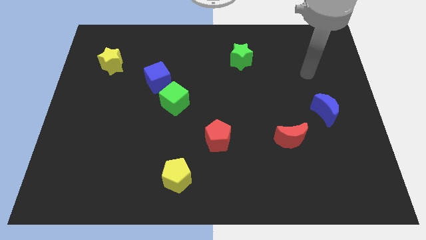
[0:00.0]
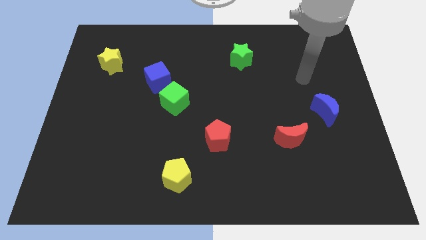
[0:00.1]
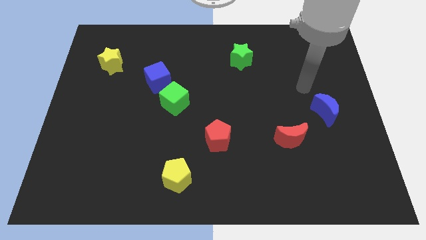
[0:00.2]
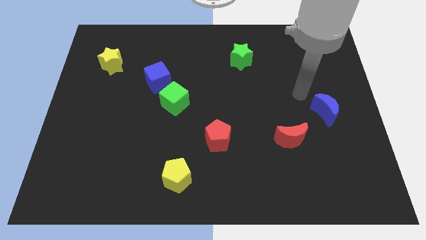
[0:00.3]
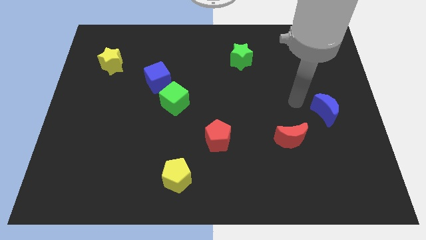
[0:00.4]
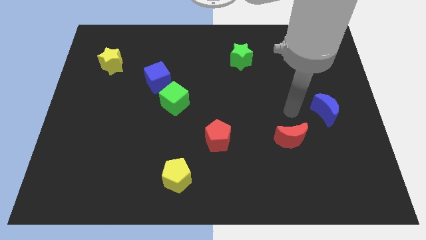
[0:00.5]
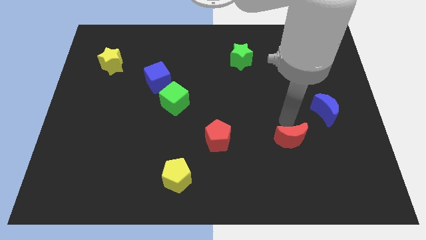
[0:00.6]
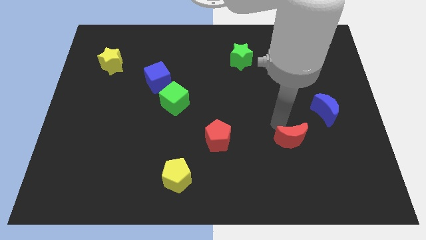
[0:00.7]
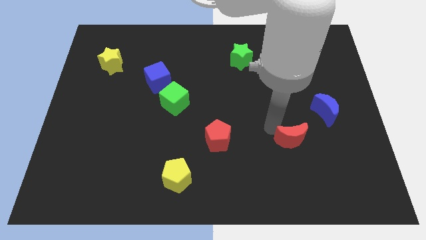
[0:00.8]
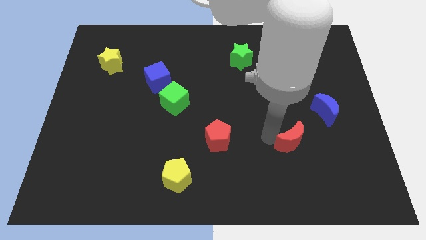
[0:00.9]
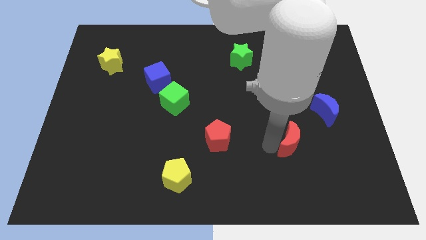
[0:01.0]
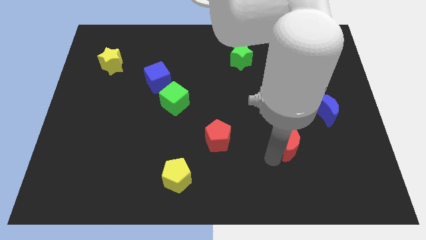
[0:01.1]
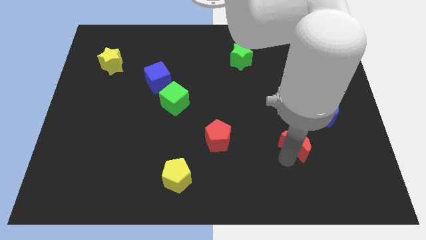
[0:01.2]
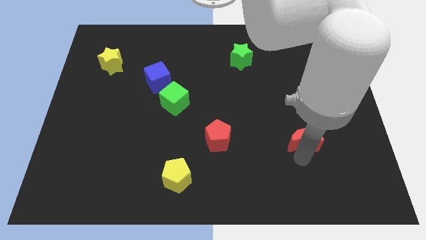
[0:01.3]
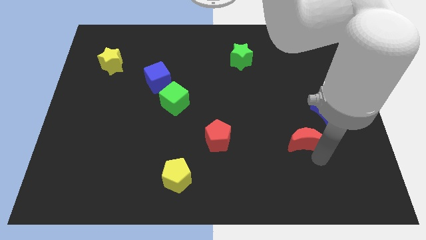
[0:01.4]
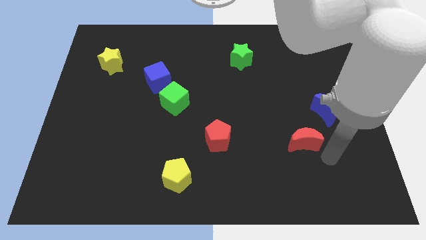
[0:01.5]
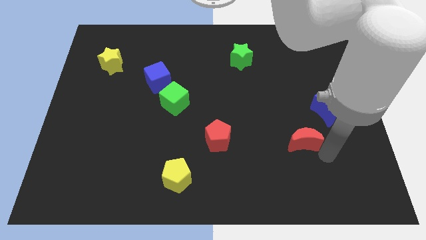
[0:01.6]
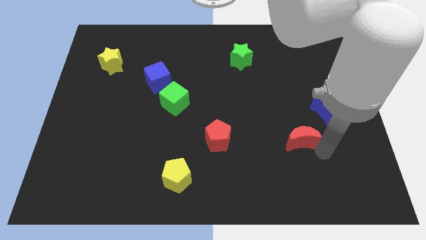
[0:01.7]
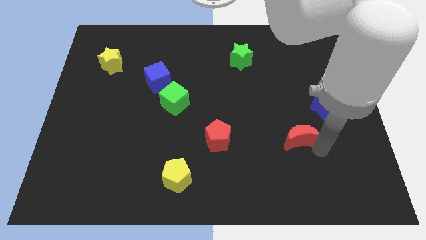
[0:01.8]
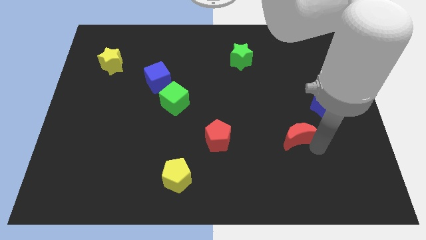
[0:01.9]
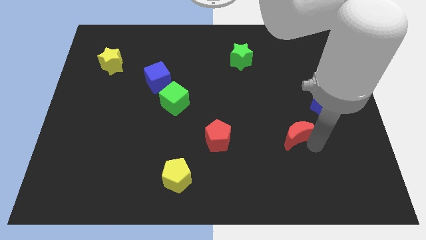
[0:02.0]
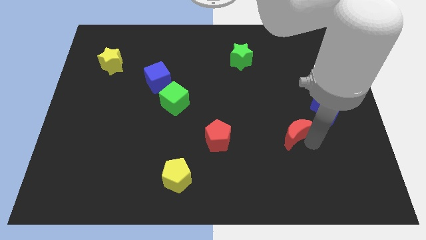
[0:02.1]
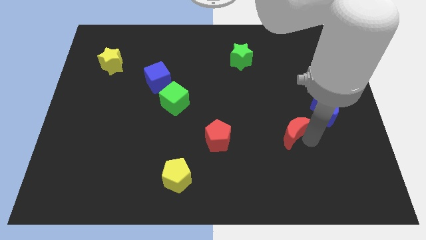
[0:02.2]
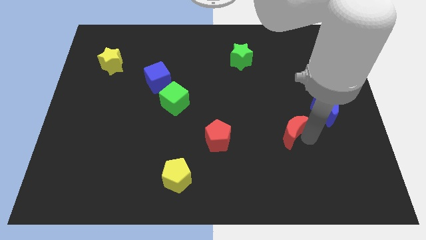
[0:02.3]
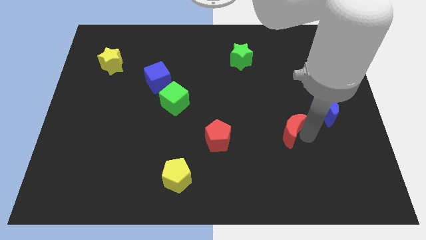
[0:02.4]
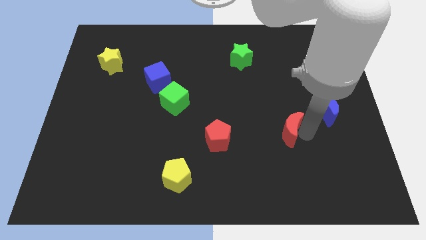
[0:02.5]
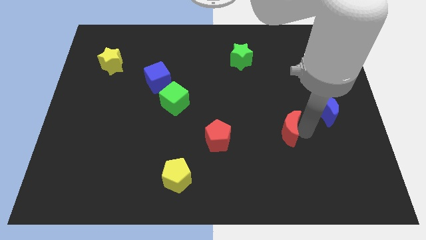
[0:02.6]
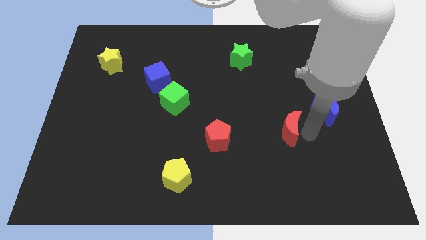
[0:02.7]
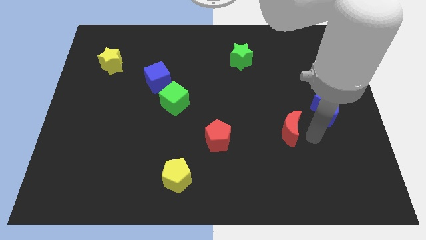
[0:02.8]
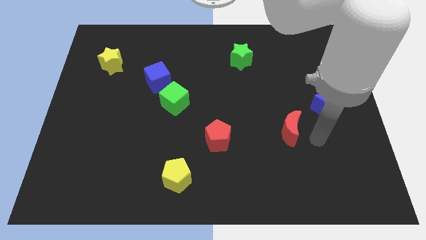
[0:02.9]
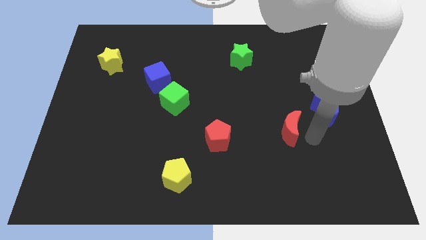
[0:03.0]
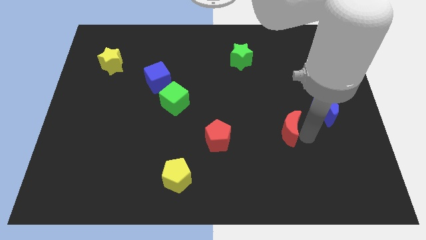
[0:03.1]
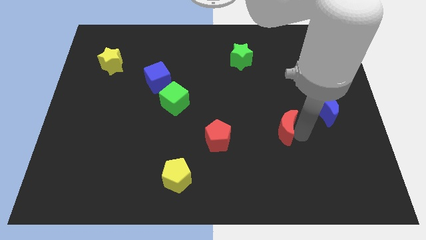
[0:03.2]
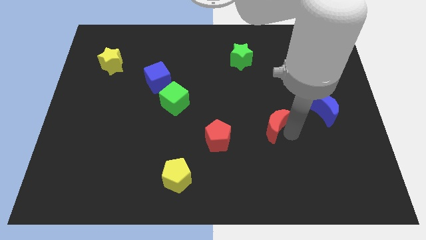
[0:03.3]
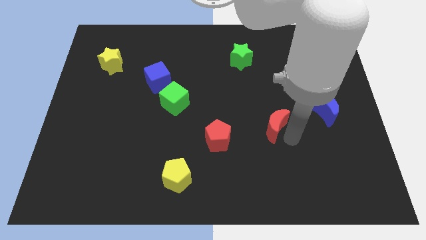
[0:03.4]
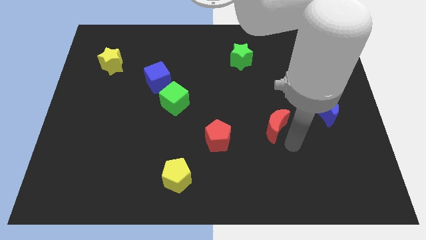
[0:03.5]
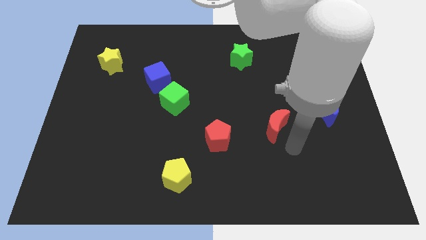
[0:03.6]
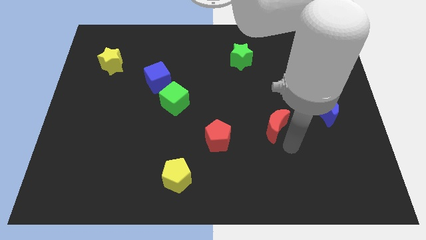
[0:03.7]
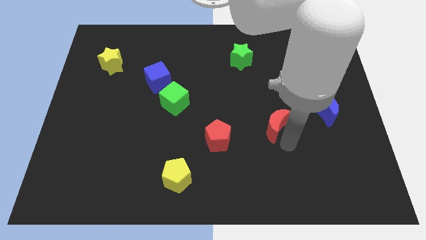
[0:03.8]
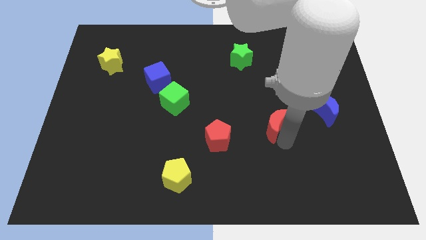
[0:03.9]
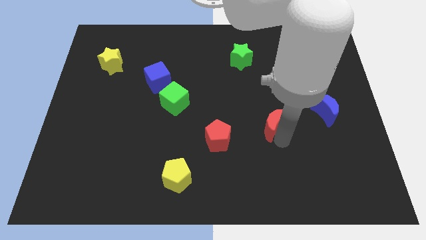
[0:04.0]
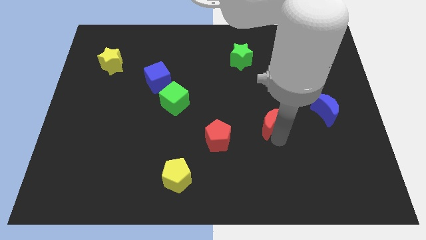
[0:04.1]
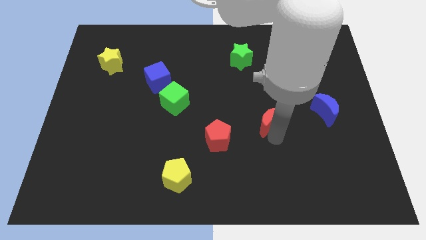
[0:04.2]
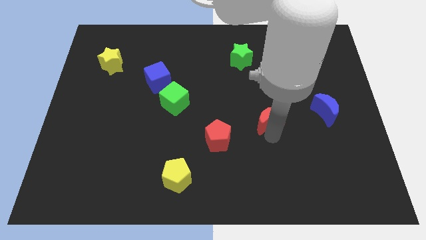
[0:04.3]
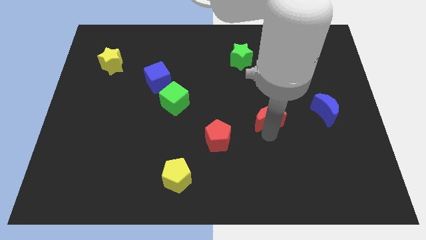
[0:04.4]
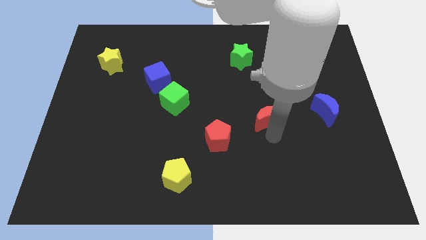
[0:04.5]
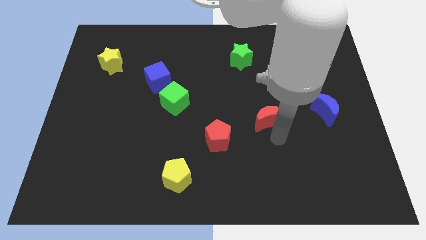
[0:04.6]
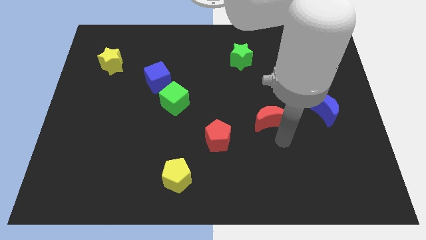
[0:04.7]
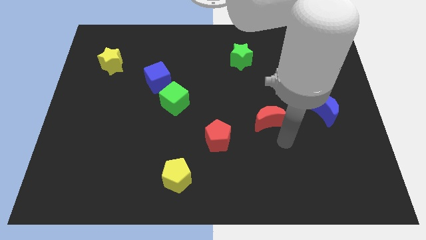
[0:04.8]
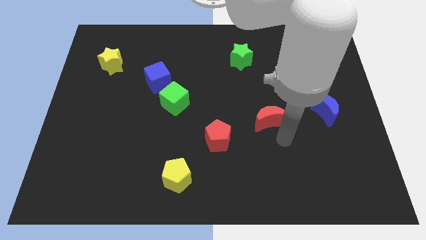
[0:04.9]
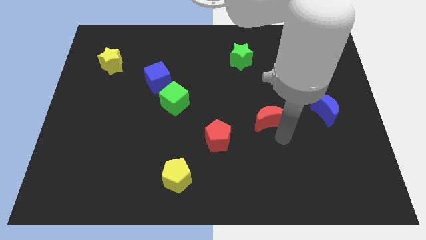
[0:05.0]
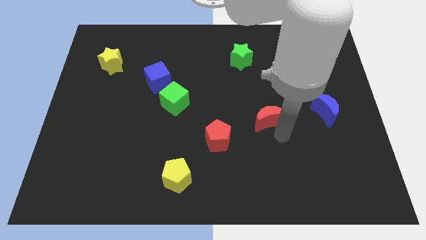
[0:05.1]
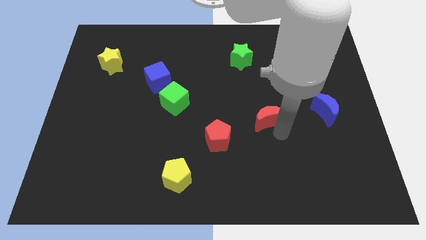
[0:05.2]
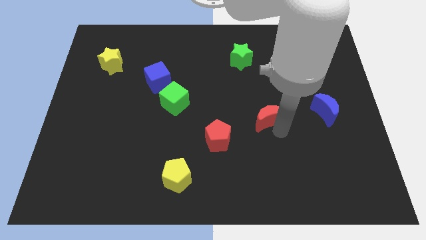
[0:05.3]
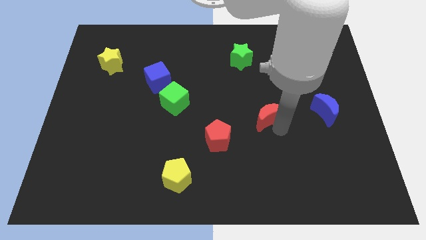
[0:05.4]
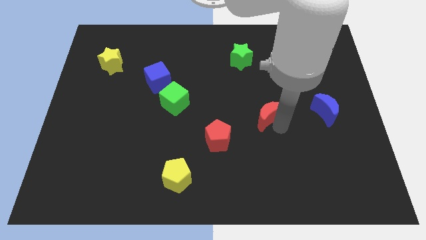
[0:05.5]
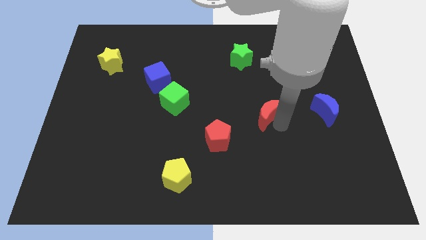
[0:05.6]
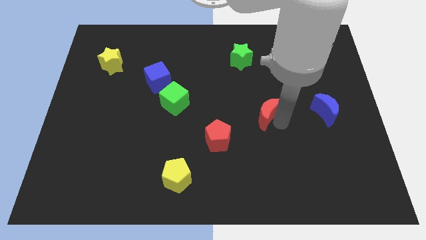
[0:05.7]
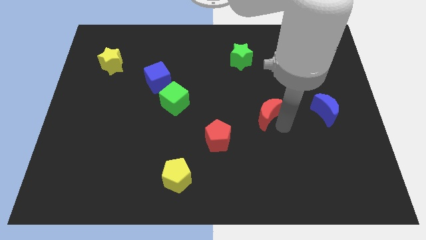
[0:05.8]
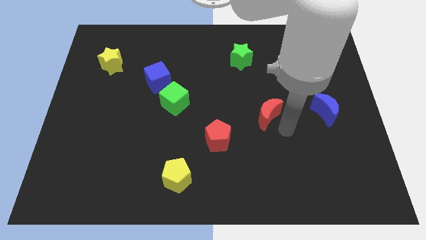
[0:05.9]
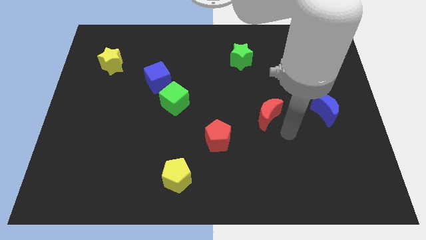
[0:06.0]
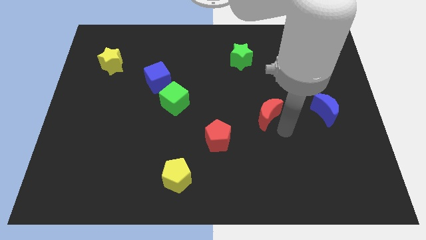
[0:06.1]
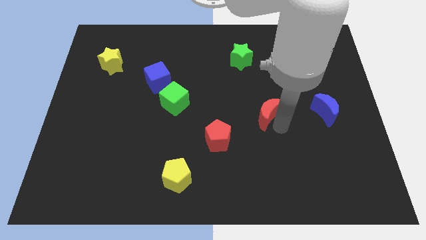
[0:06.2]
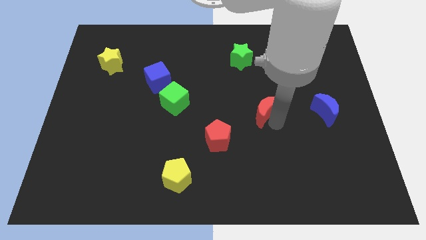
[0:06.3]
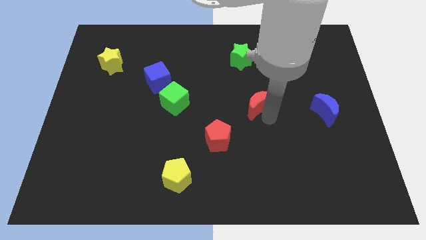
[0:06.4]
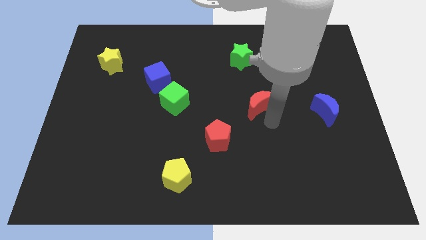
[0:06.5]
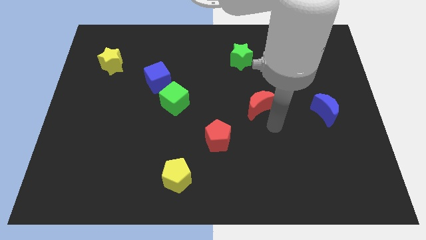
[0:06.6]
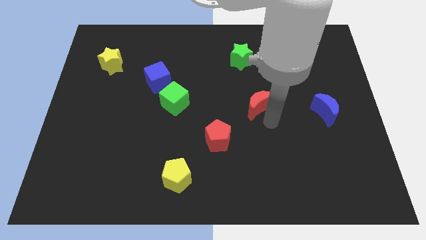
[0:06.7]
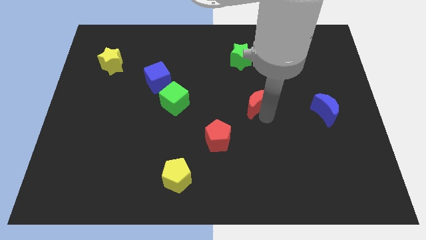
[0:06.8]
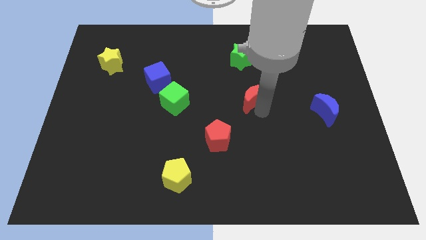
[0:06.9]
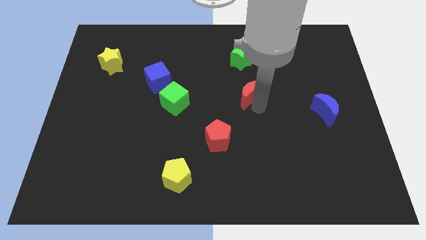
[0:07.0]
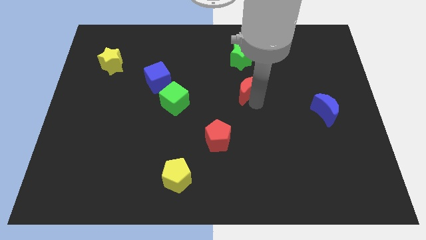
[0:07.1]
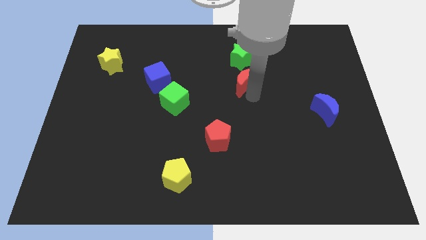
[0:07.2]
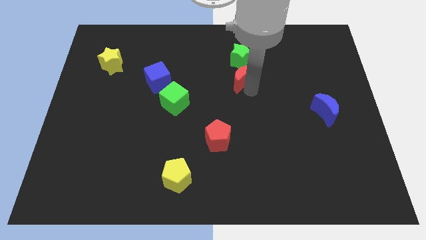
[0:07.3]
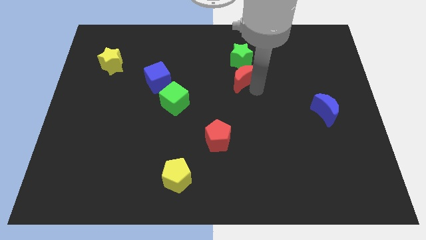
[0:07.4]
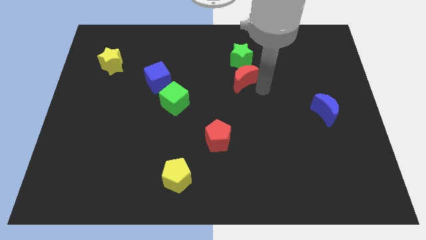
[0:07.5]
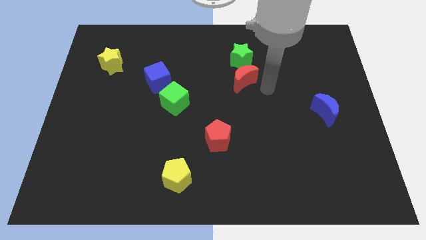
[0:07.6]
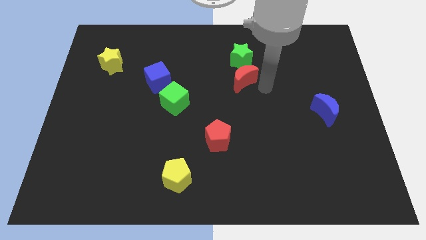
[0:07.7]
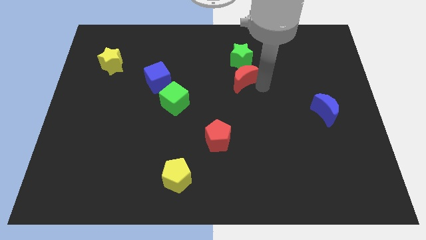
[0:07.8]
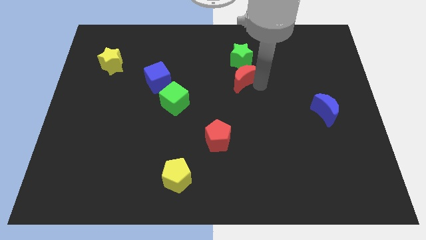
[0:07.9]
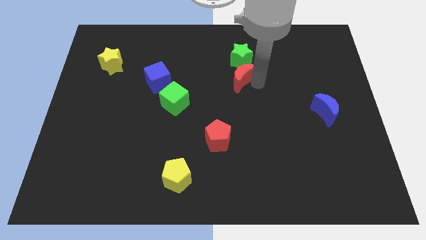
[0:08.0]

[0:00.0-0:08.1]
slide the red moon to the bottom left side of the green star
